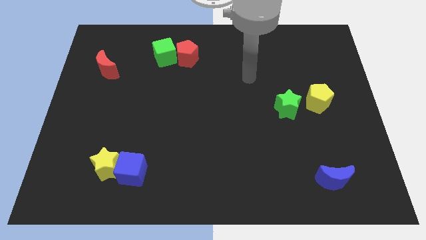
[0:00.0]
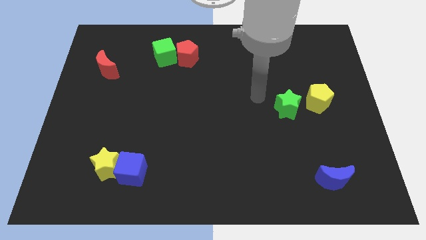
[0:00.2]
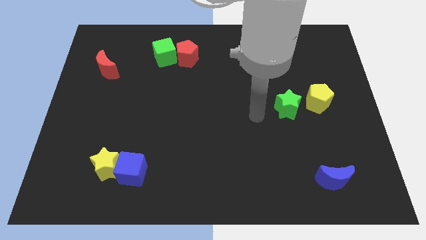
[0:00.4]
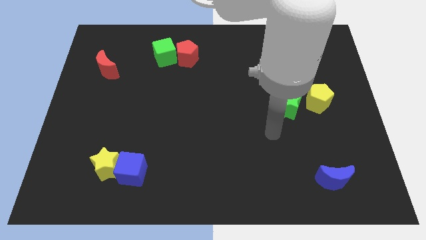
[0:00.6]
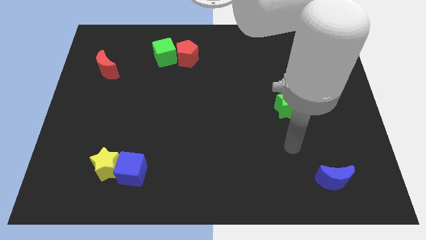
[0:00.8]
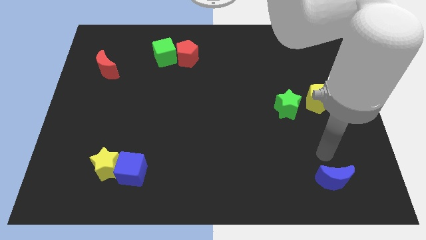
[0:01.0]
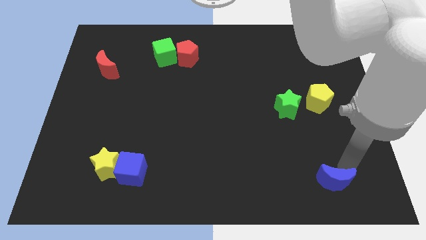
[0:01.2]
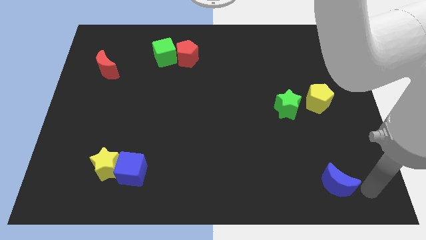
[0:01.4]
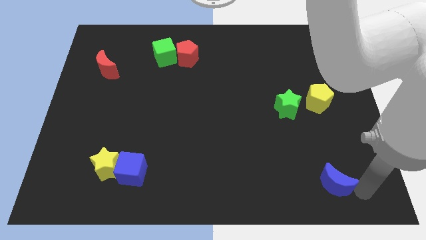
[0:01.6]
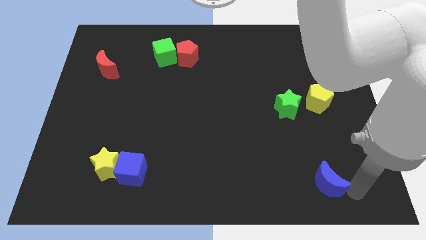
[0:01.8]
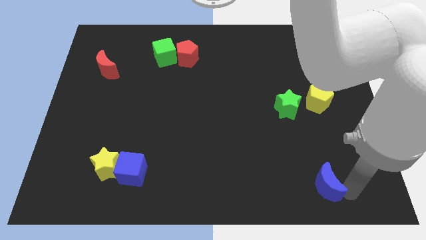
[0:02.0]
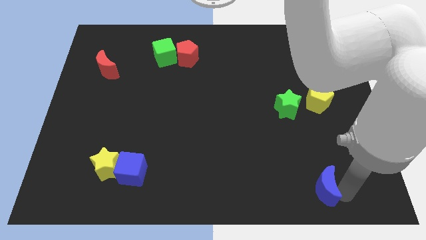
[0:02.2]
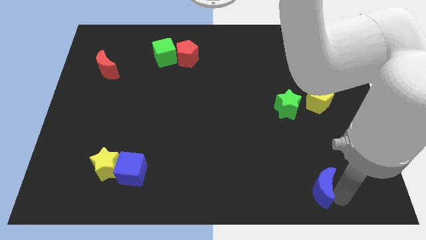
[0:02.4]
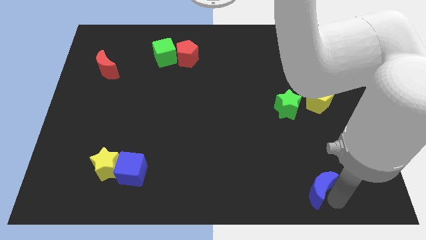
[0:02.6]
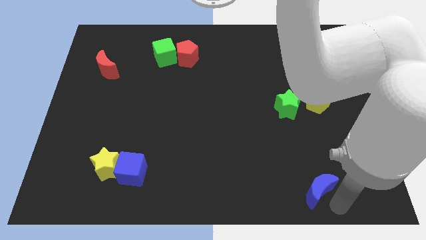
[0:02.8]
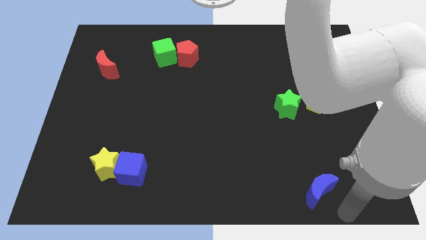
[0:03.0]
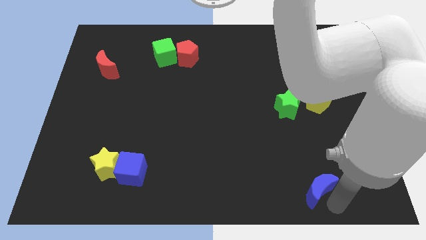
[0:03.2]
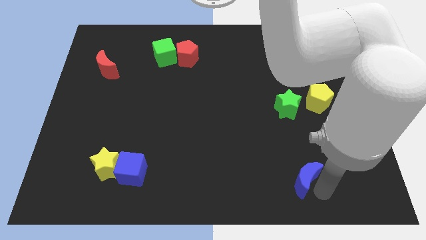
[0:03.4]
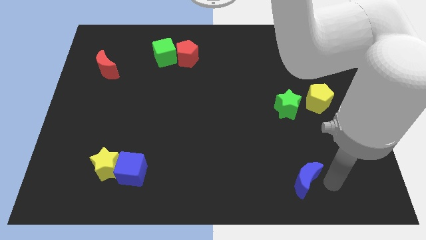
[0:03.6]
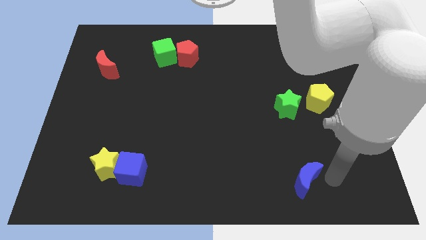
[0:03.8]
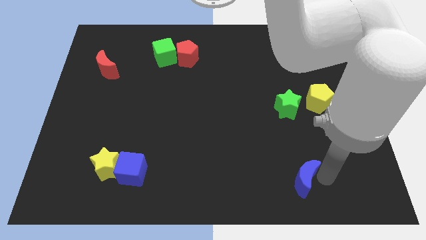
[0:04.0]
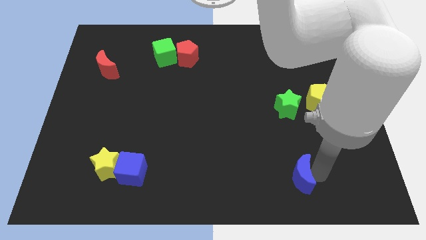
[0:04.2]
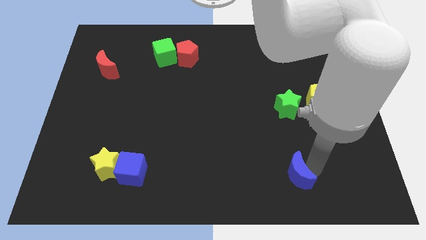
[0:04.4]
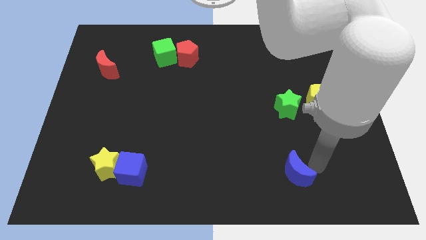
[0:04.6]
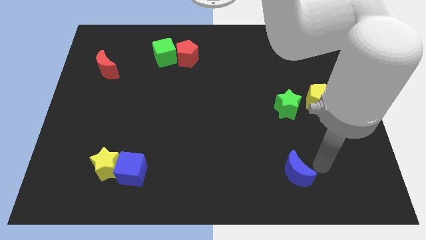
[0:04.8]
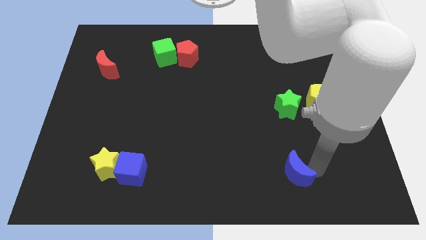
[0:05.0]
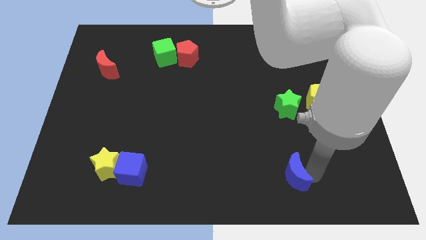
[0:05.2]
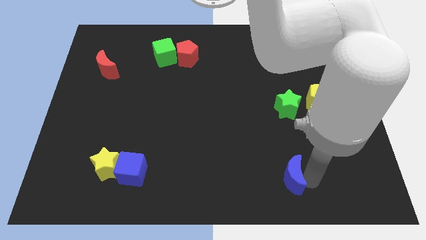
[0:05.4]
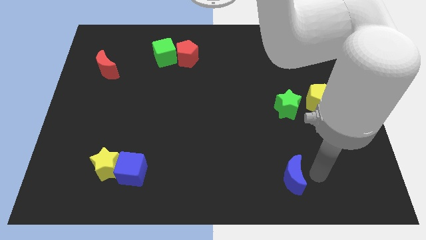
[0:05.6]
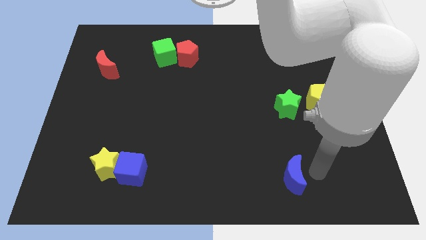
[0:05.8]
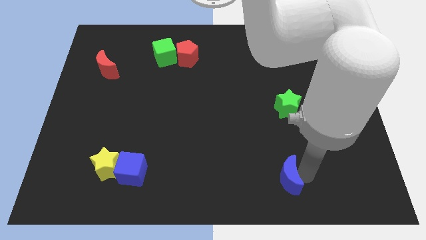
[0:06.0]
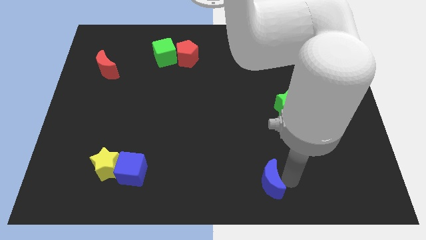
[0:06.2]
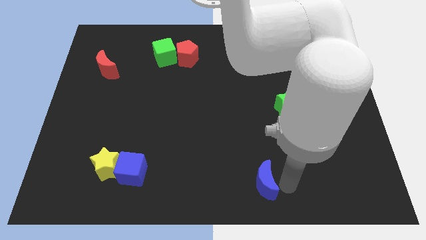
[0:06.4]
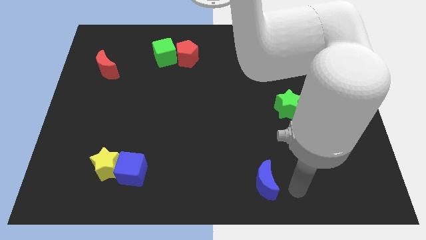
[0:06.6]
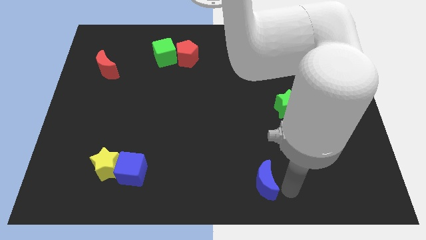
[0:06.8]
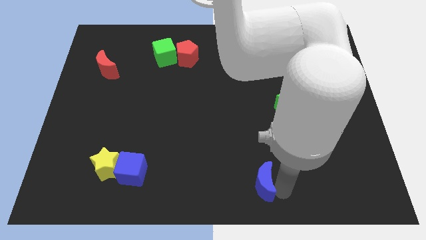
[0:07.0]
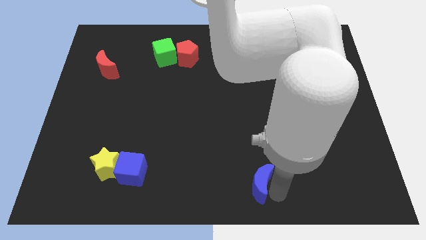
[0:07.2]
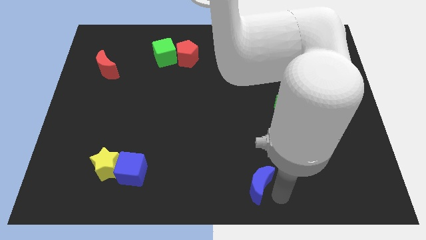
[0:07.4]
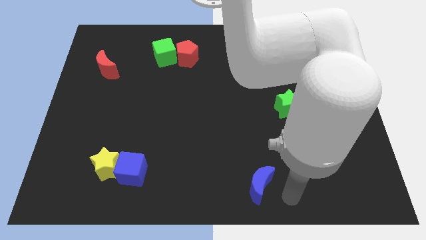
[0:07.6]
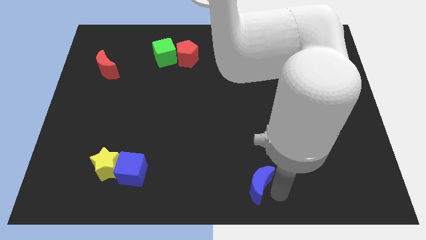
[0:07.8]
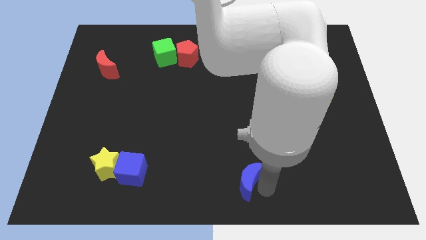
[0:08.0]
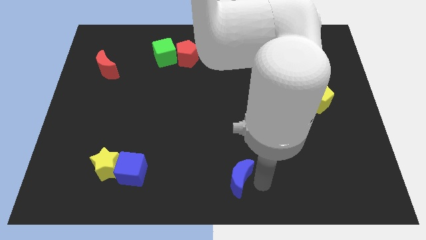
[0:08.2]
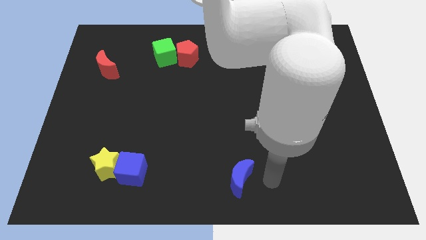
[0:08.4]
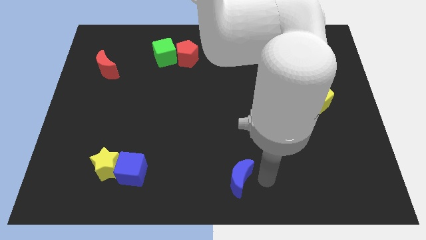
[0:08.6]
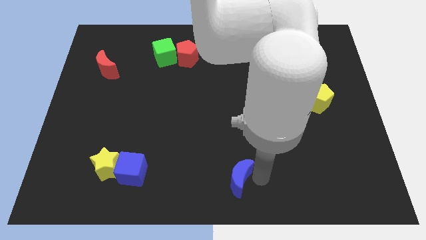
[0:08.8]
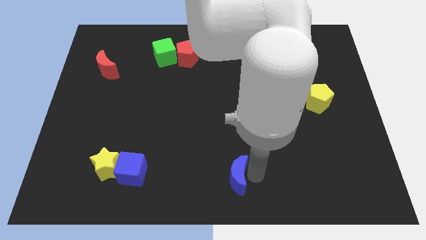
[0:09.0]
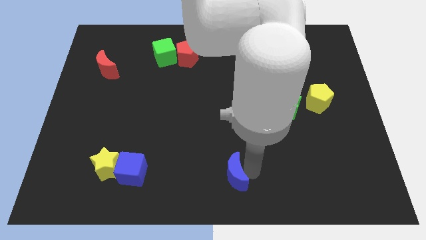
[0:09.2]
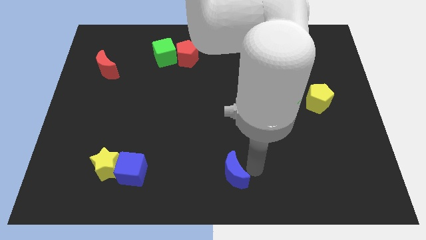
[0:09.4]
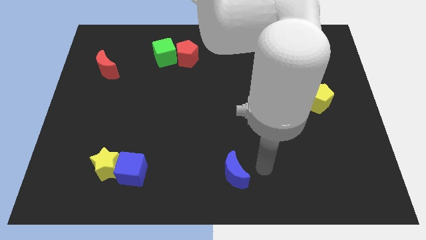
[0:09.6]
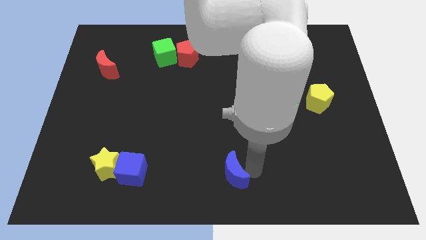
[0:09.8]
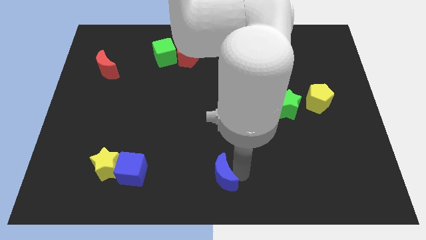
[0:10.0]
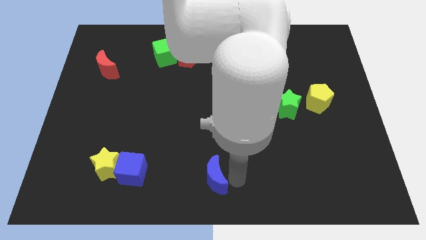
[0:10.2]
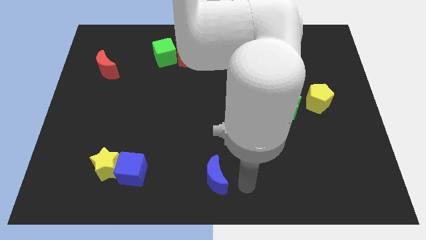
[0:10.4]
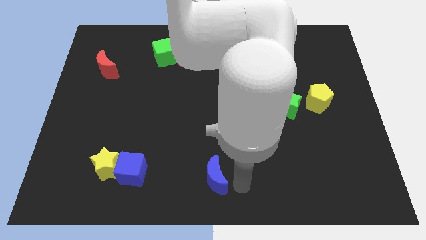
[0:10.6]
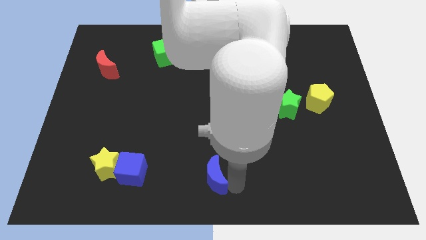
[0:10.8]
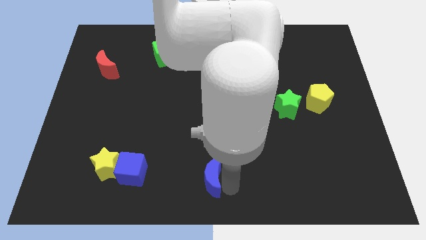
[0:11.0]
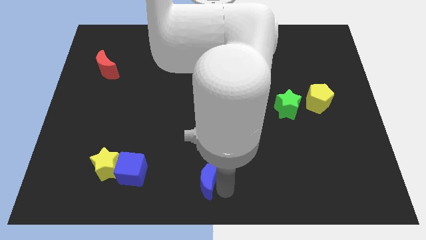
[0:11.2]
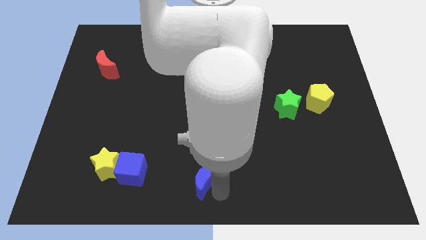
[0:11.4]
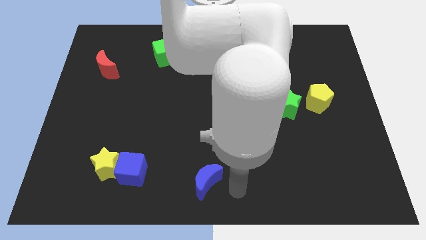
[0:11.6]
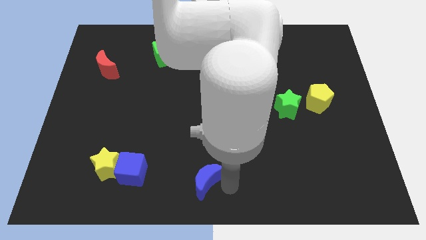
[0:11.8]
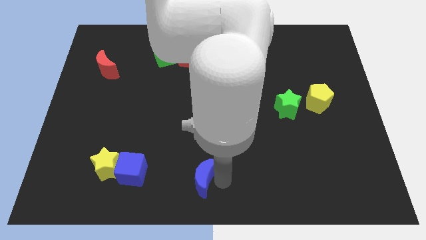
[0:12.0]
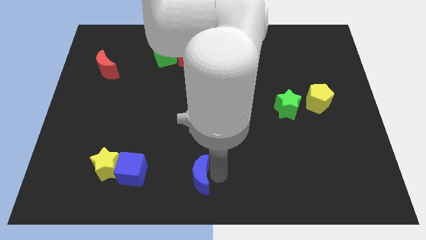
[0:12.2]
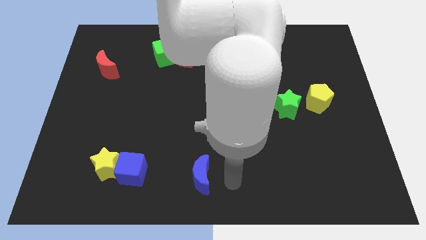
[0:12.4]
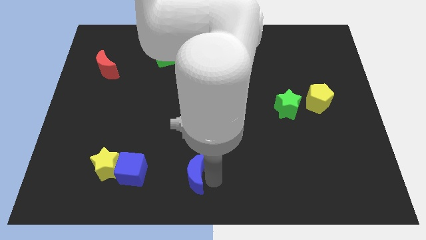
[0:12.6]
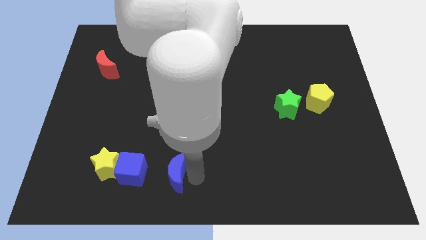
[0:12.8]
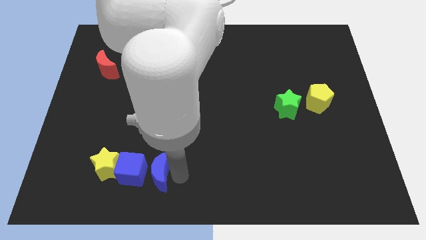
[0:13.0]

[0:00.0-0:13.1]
move the blue moon next to the blue cube
